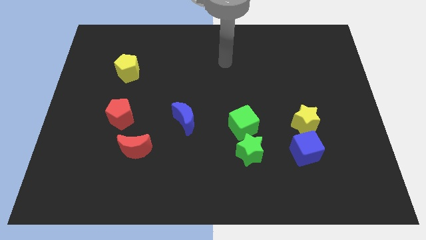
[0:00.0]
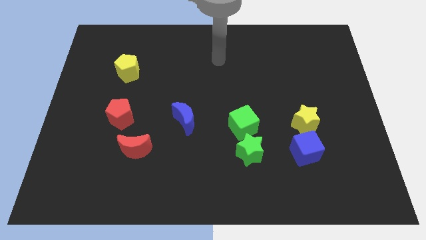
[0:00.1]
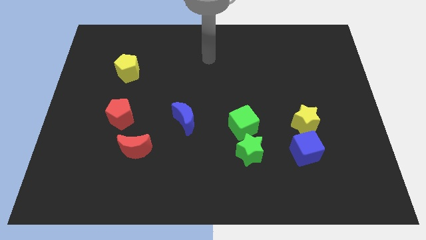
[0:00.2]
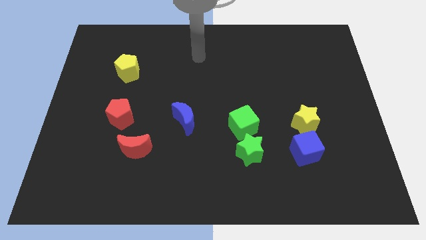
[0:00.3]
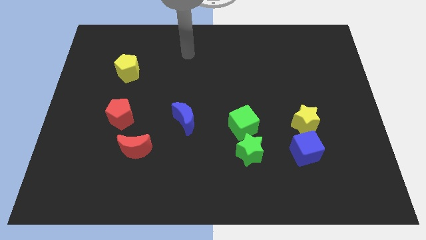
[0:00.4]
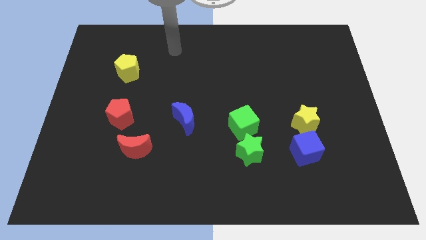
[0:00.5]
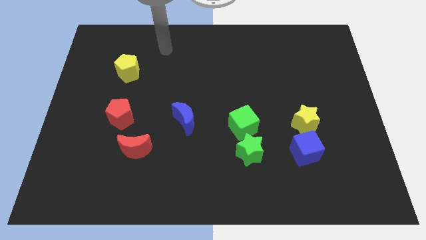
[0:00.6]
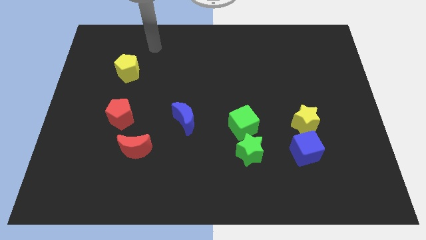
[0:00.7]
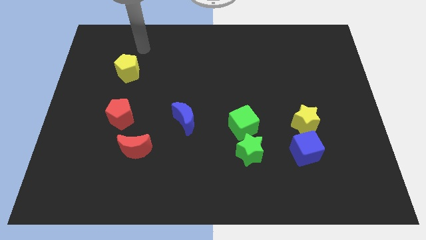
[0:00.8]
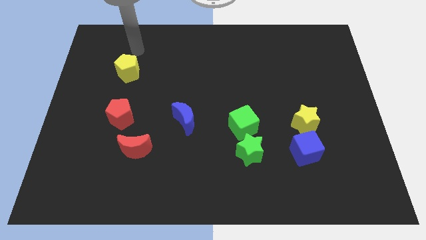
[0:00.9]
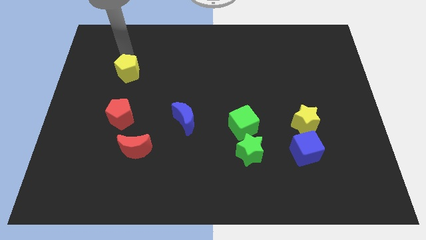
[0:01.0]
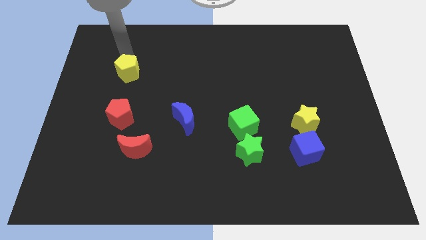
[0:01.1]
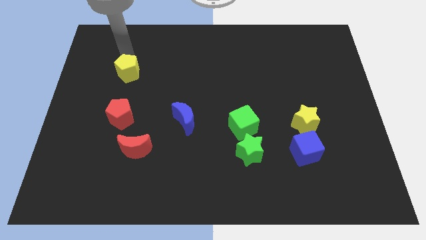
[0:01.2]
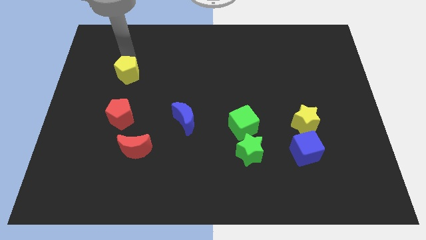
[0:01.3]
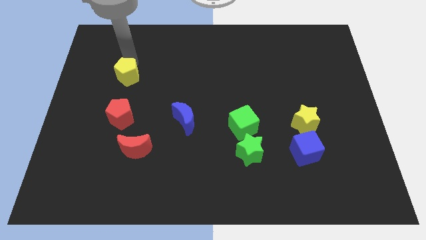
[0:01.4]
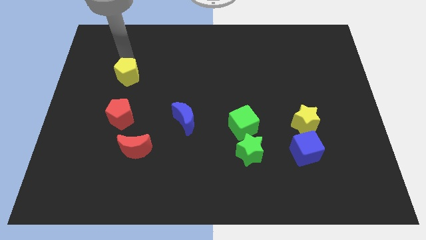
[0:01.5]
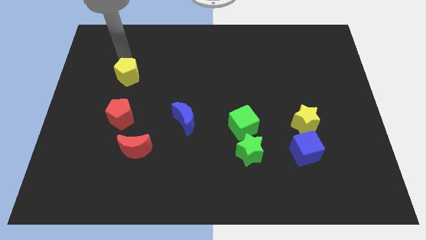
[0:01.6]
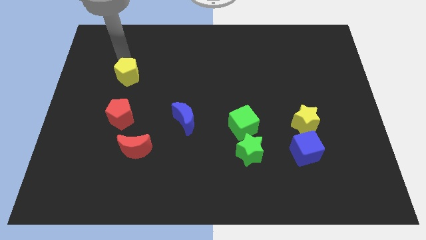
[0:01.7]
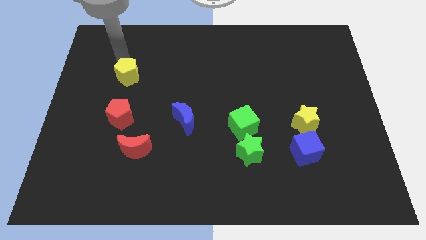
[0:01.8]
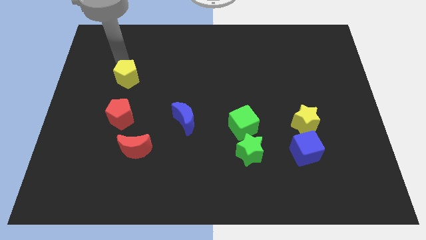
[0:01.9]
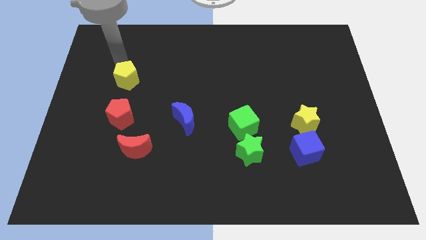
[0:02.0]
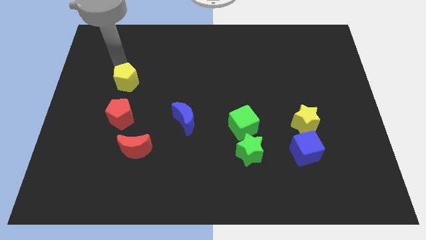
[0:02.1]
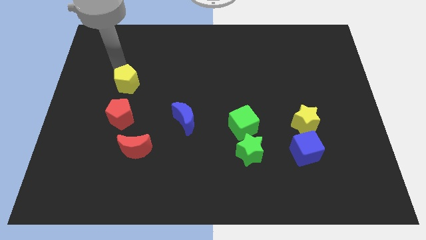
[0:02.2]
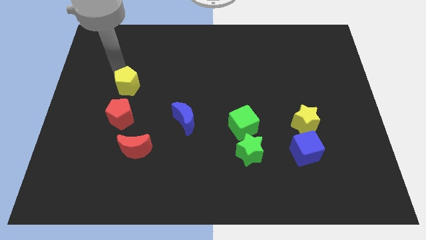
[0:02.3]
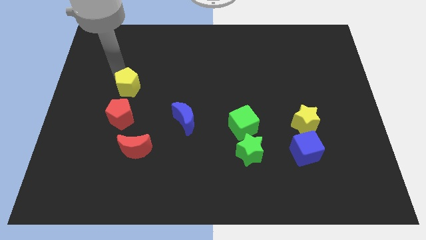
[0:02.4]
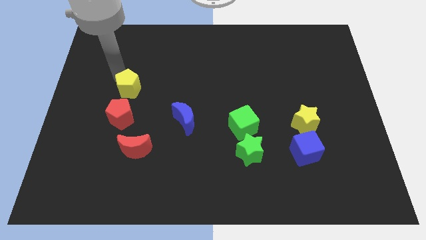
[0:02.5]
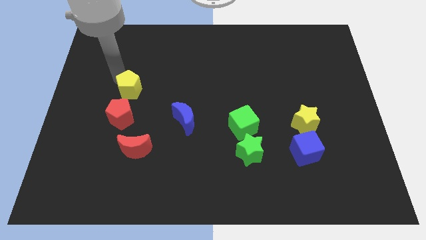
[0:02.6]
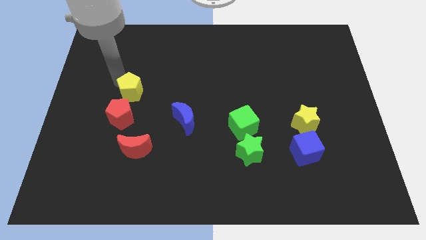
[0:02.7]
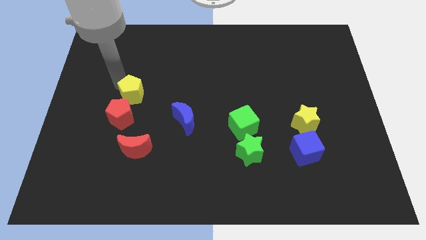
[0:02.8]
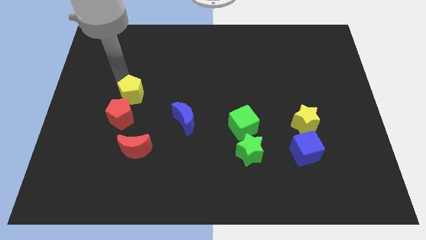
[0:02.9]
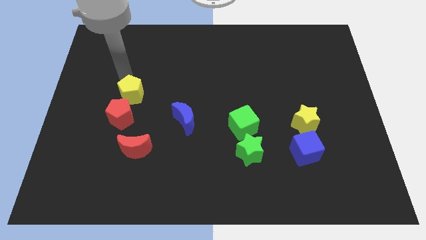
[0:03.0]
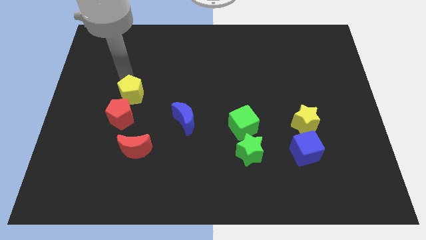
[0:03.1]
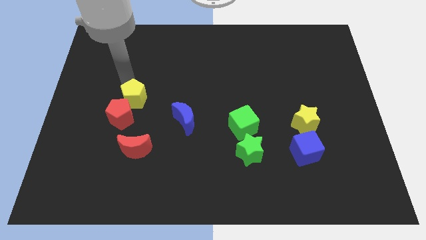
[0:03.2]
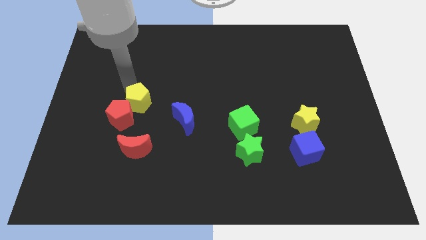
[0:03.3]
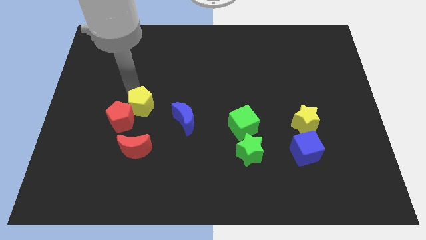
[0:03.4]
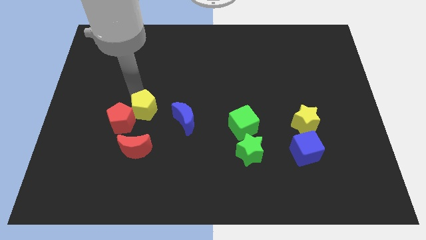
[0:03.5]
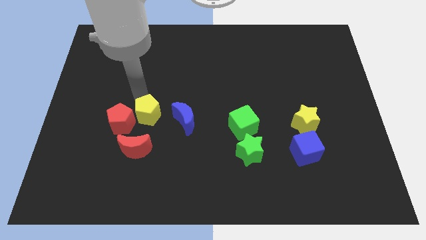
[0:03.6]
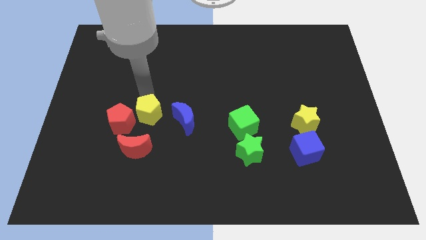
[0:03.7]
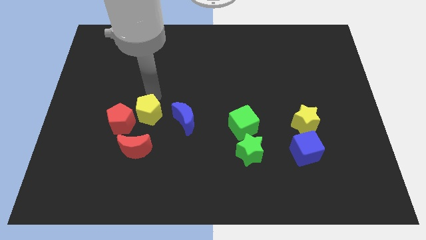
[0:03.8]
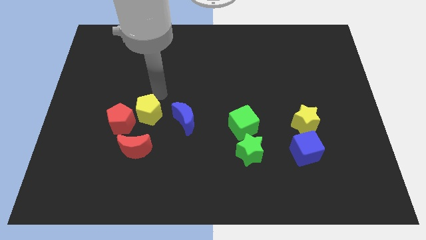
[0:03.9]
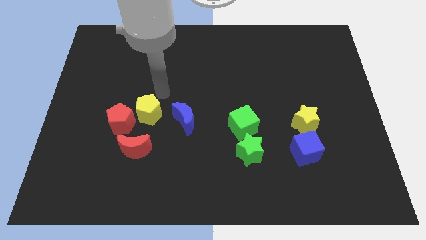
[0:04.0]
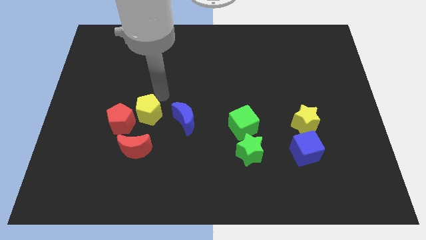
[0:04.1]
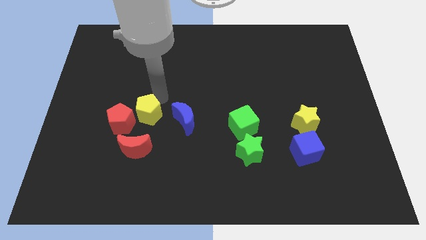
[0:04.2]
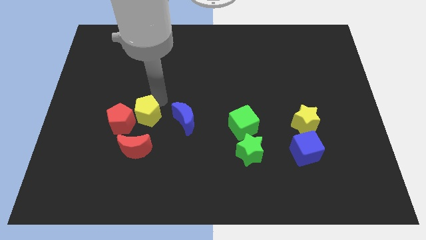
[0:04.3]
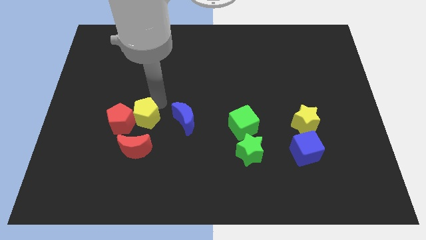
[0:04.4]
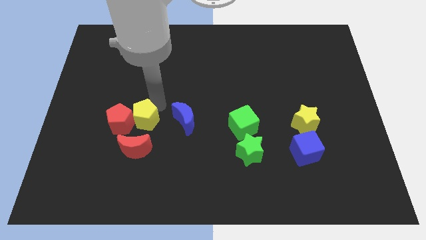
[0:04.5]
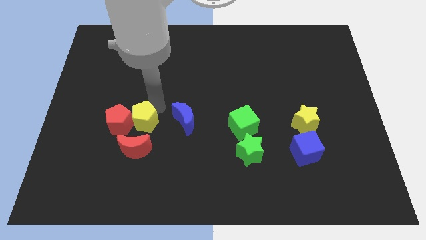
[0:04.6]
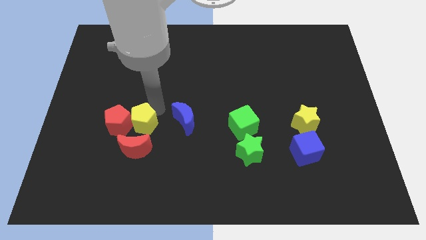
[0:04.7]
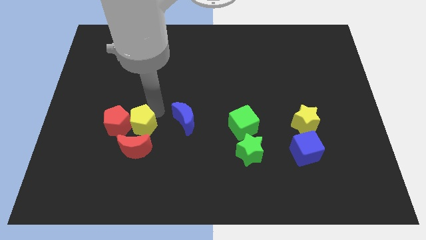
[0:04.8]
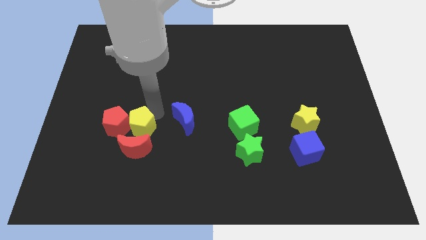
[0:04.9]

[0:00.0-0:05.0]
push the yellow pentagon to the red moon

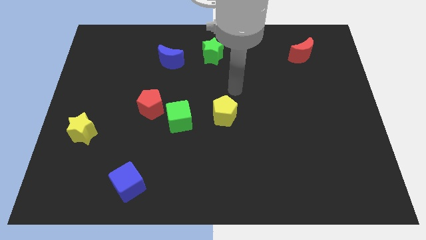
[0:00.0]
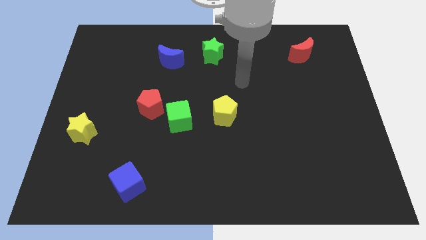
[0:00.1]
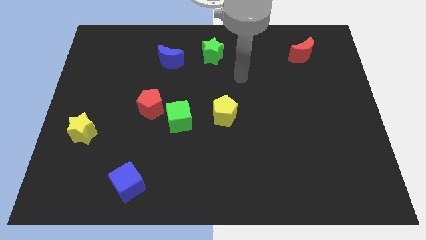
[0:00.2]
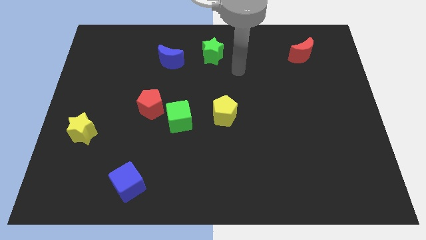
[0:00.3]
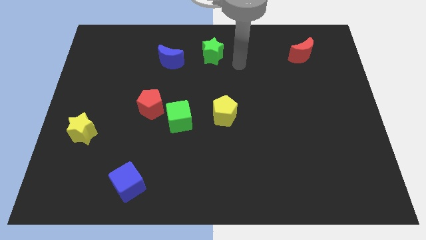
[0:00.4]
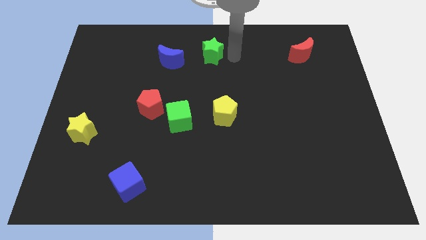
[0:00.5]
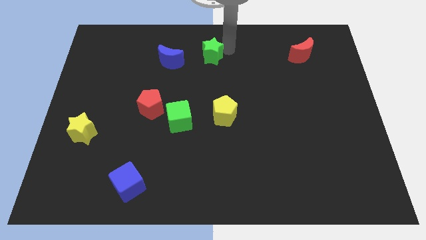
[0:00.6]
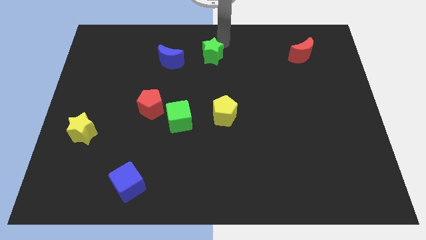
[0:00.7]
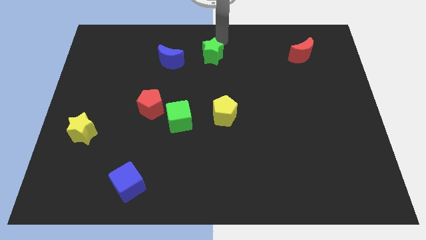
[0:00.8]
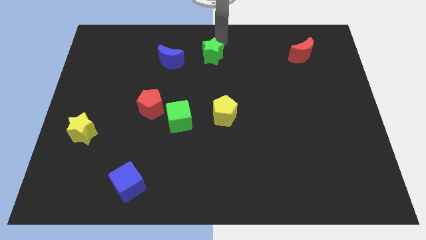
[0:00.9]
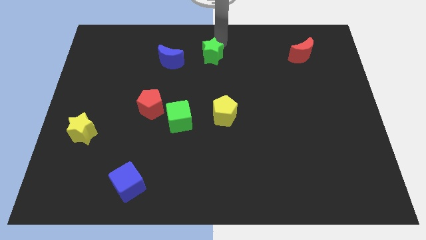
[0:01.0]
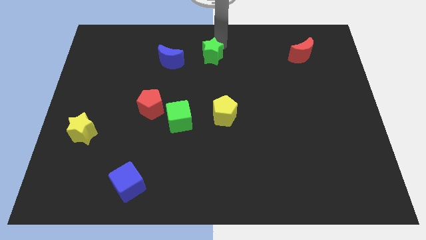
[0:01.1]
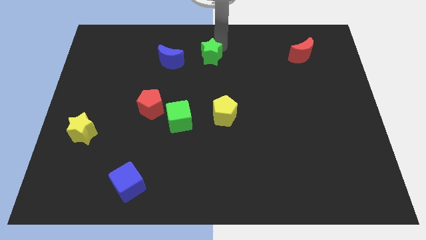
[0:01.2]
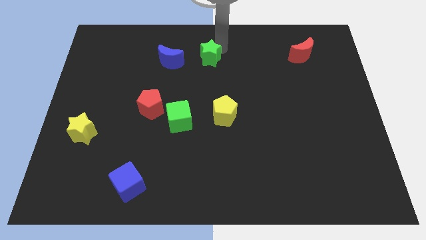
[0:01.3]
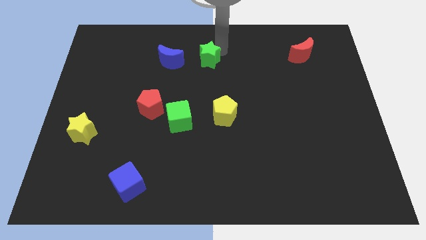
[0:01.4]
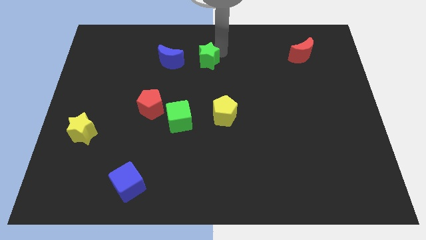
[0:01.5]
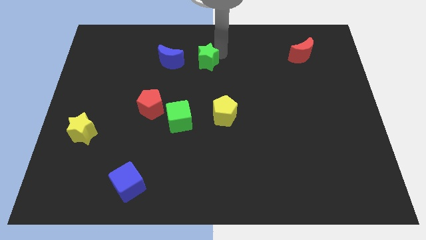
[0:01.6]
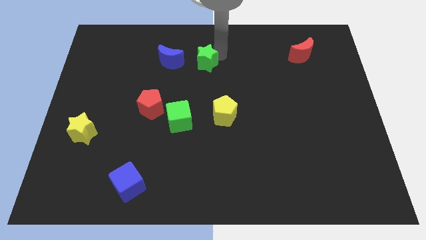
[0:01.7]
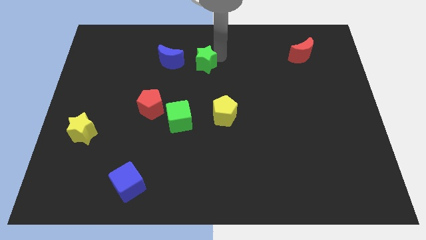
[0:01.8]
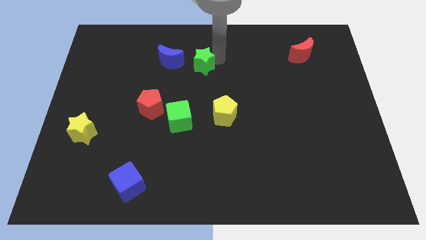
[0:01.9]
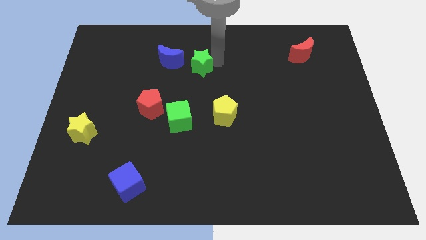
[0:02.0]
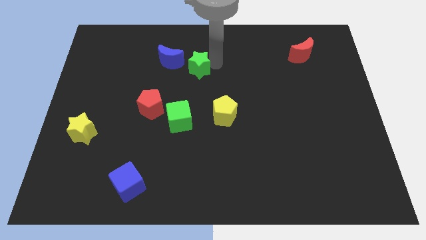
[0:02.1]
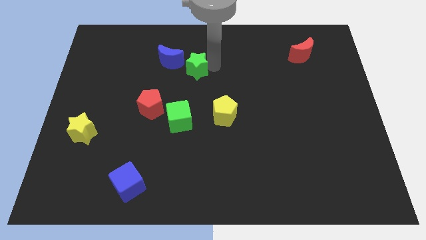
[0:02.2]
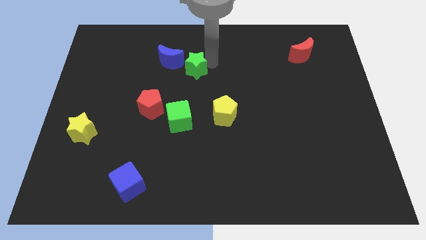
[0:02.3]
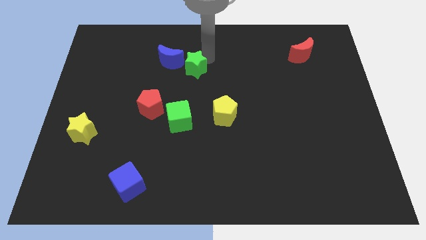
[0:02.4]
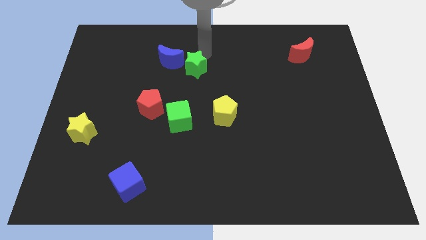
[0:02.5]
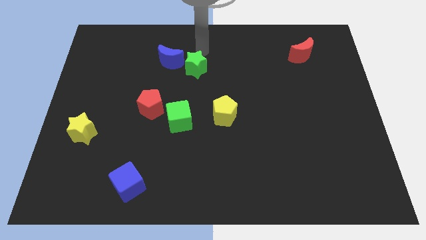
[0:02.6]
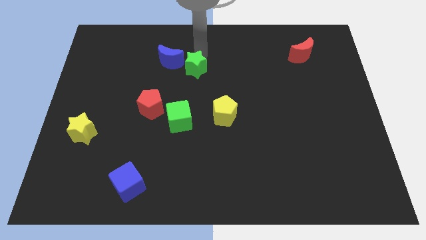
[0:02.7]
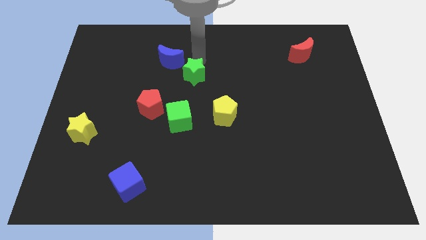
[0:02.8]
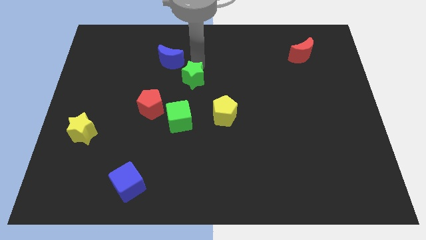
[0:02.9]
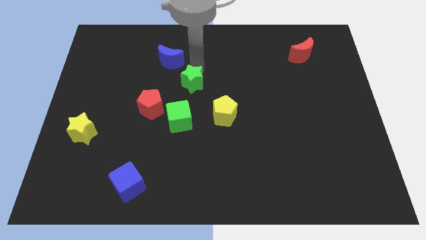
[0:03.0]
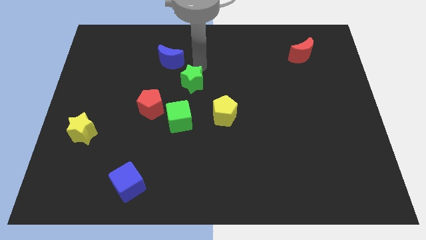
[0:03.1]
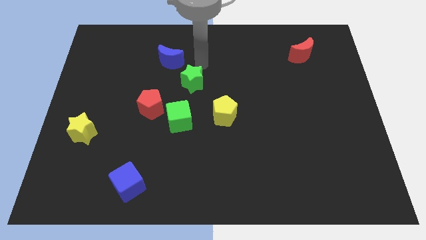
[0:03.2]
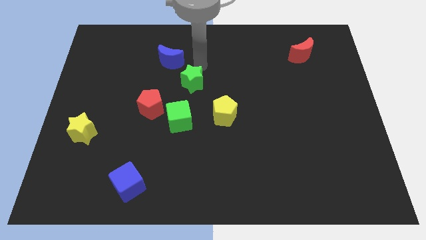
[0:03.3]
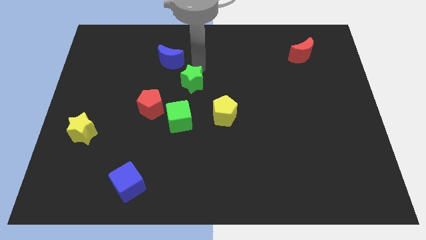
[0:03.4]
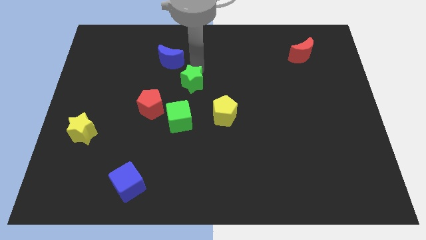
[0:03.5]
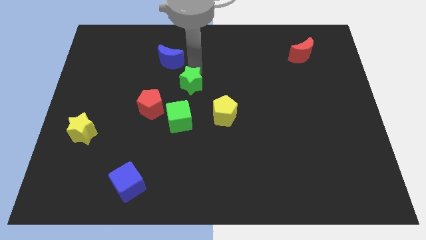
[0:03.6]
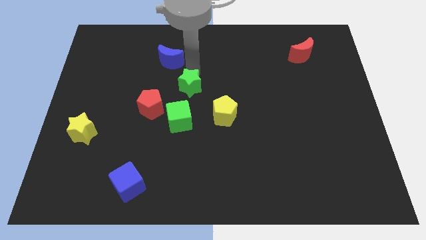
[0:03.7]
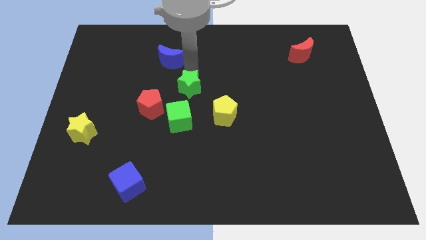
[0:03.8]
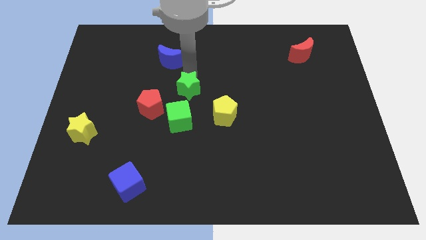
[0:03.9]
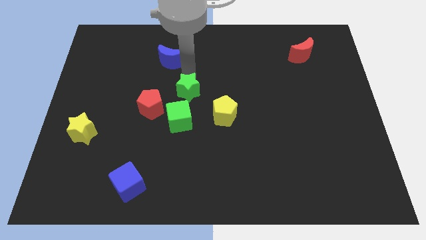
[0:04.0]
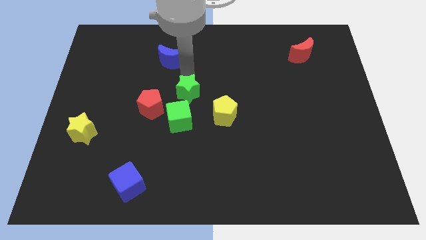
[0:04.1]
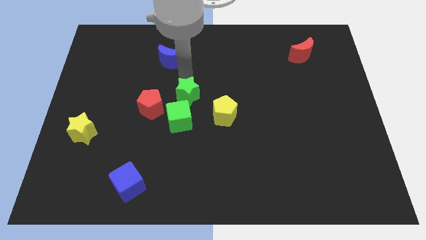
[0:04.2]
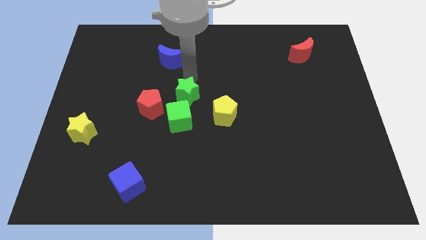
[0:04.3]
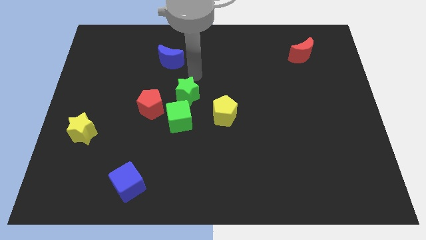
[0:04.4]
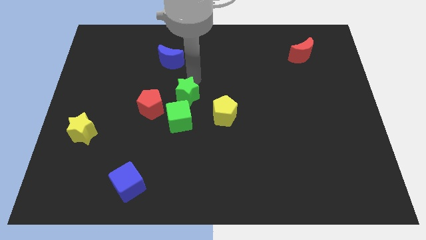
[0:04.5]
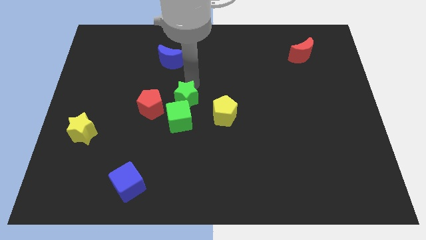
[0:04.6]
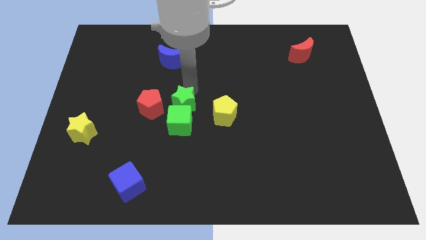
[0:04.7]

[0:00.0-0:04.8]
slide the green star close to the green cube
